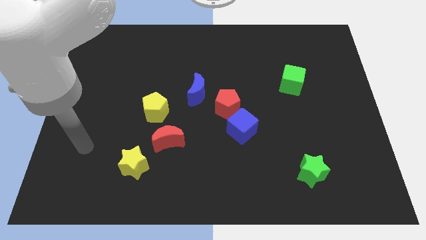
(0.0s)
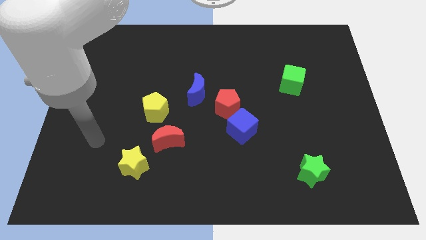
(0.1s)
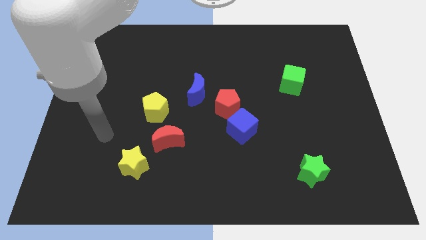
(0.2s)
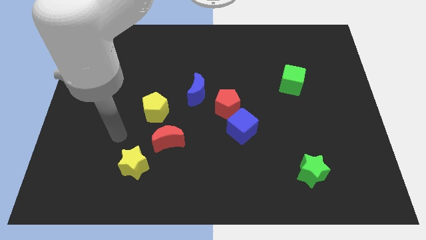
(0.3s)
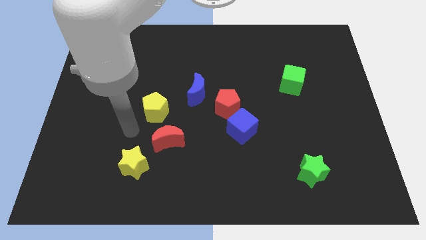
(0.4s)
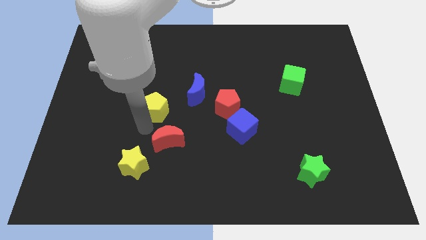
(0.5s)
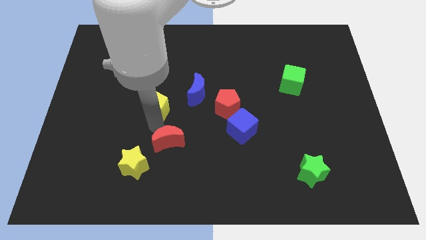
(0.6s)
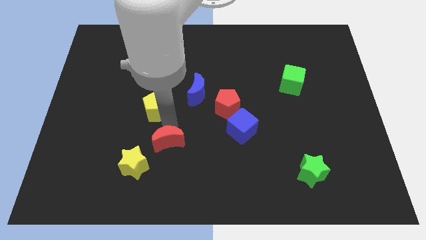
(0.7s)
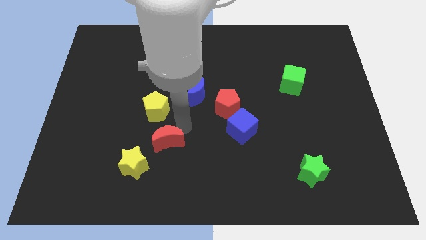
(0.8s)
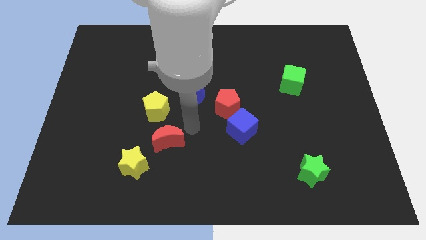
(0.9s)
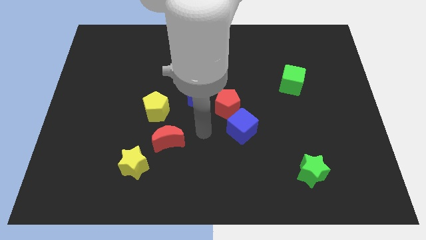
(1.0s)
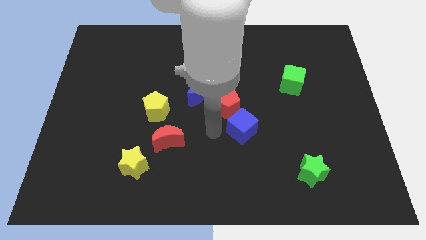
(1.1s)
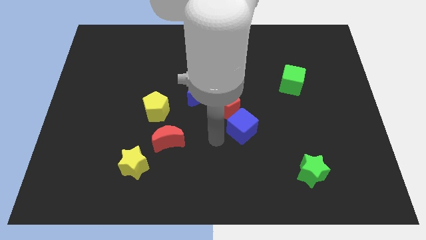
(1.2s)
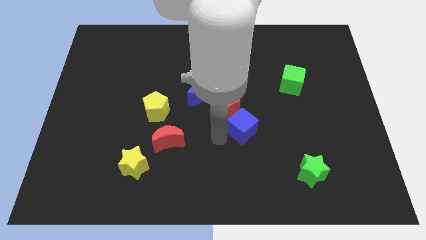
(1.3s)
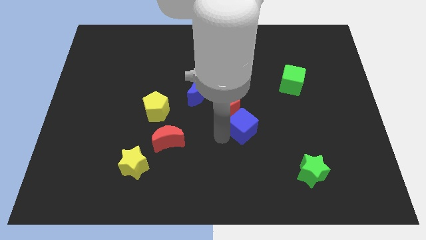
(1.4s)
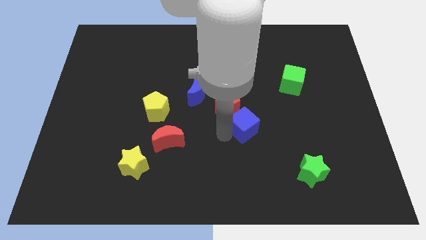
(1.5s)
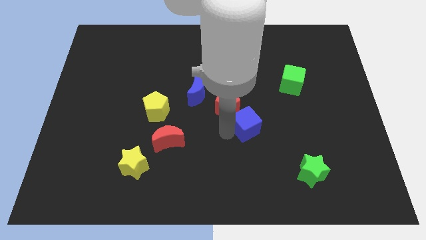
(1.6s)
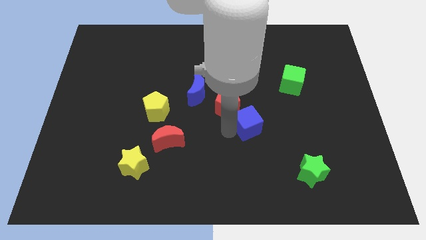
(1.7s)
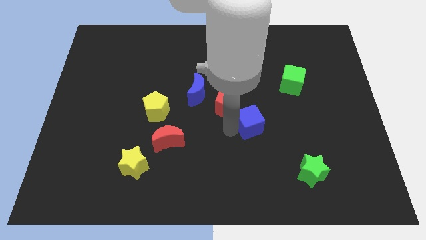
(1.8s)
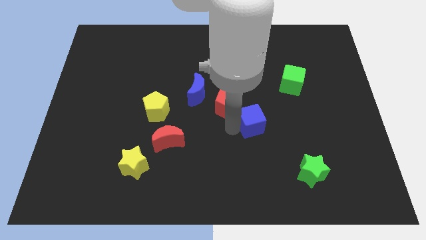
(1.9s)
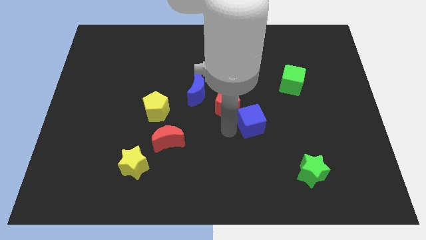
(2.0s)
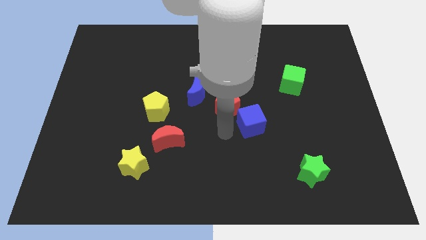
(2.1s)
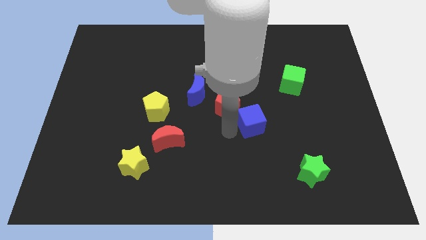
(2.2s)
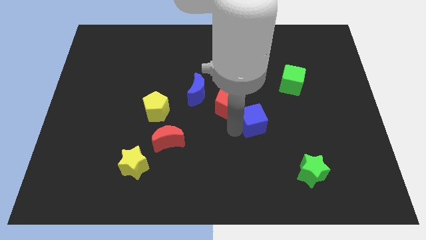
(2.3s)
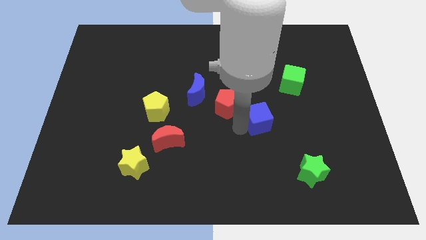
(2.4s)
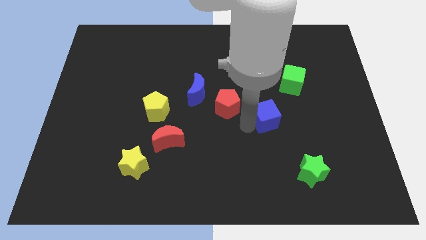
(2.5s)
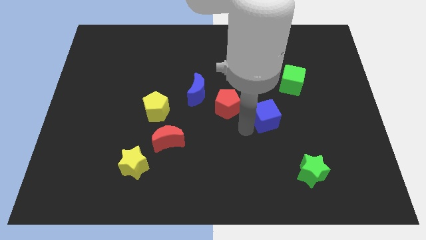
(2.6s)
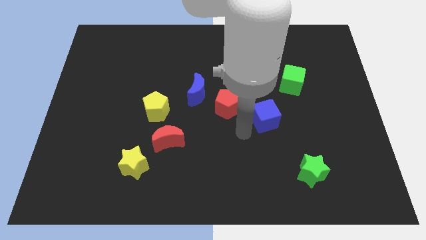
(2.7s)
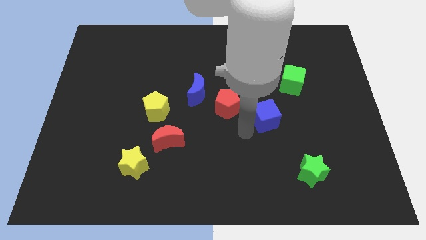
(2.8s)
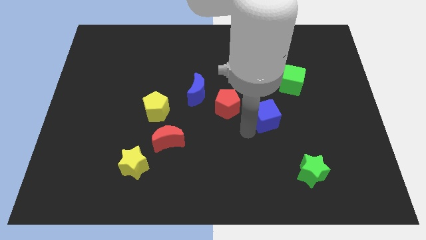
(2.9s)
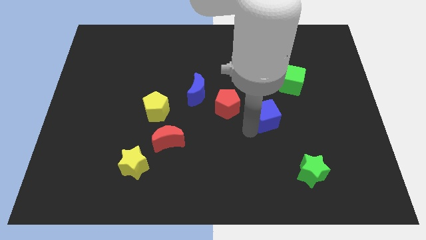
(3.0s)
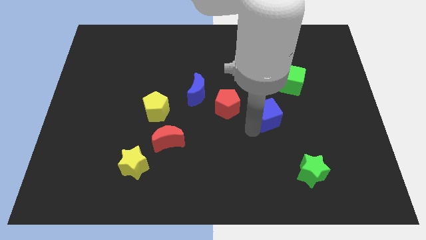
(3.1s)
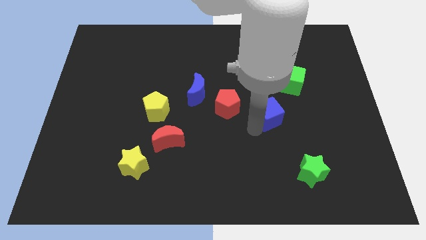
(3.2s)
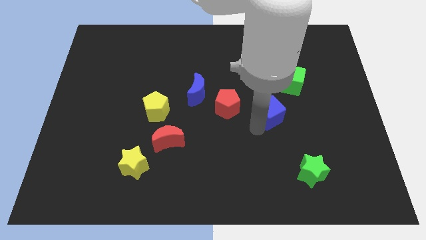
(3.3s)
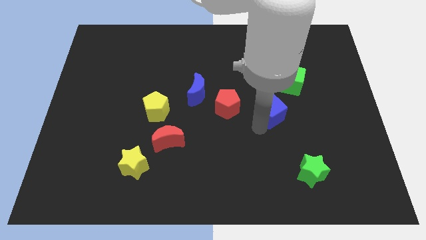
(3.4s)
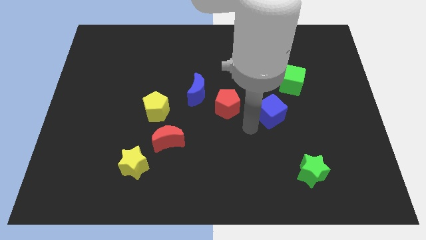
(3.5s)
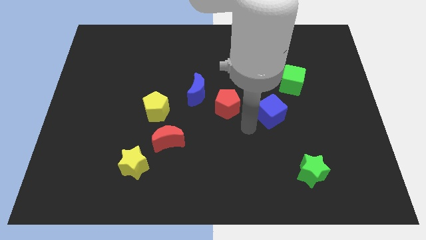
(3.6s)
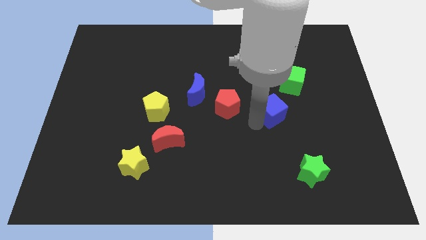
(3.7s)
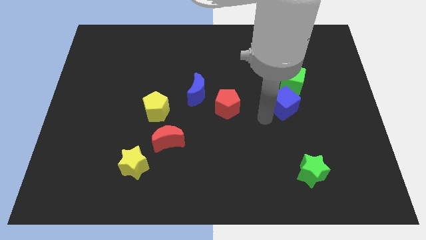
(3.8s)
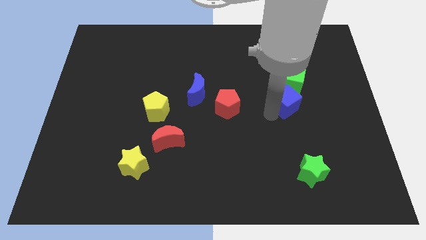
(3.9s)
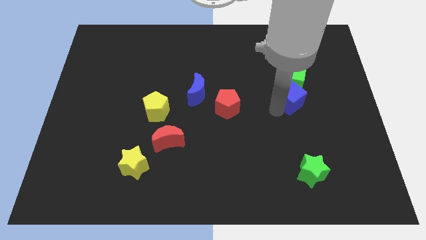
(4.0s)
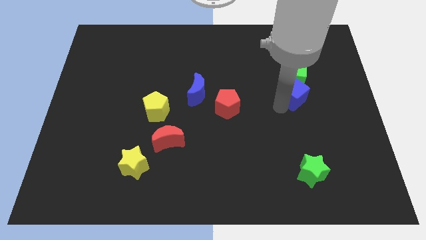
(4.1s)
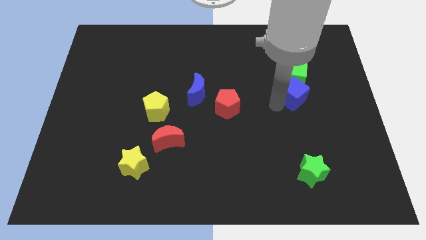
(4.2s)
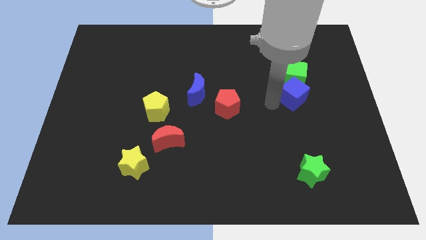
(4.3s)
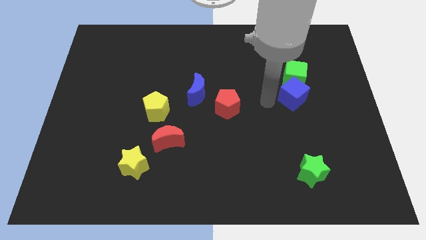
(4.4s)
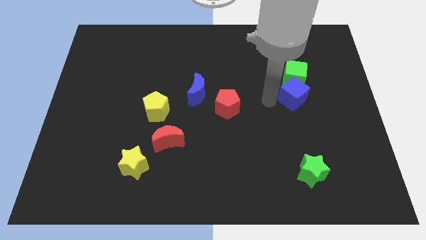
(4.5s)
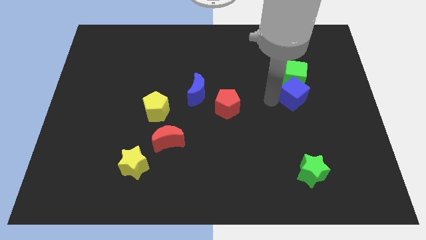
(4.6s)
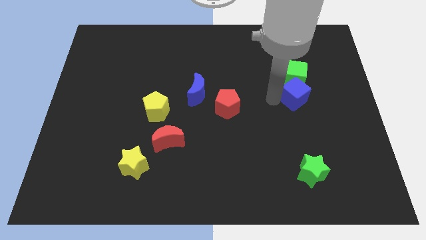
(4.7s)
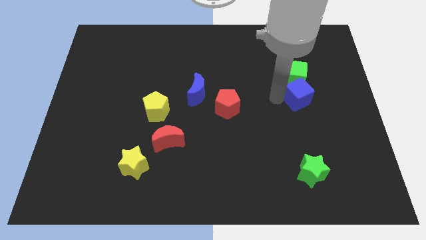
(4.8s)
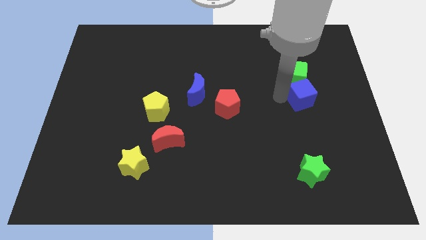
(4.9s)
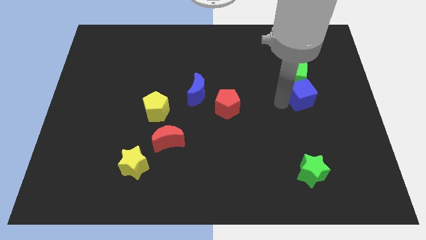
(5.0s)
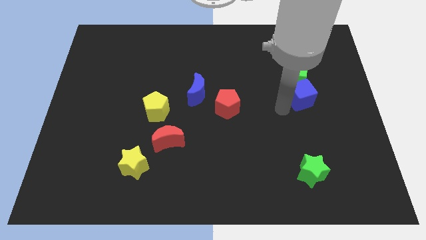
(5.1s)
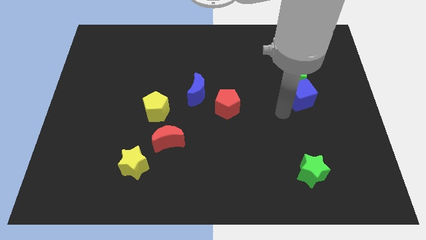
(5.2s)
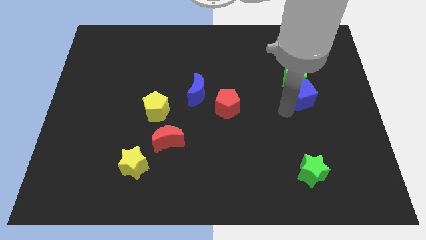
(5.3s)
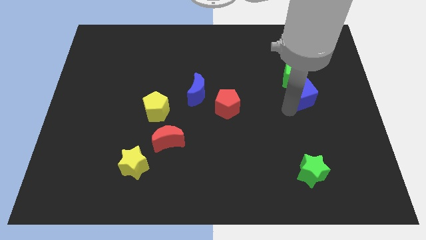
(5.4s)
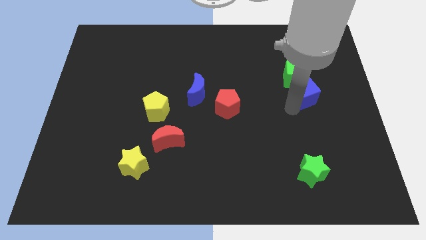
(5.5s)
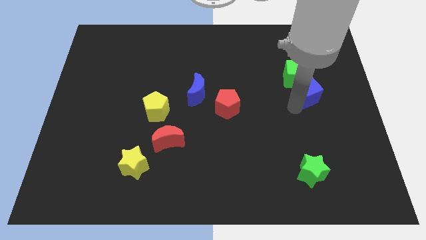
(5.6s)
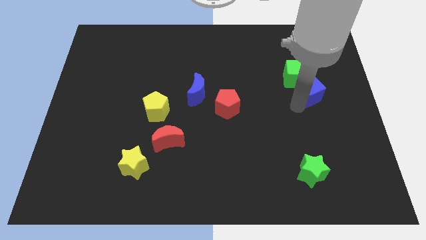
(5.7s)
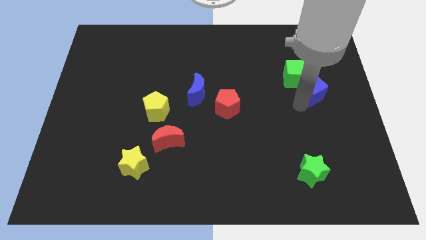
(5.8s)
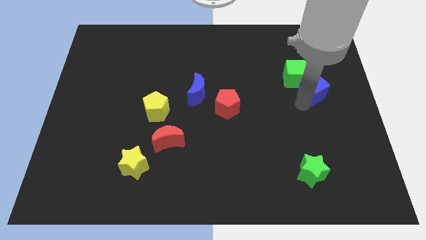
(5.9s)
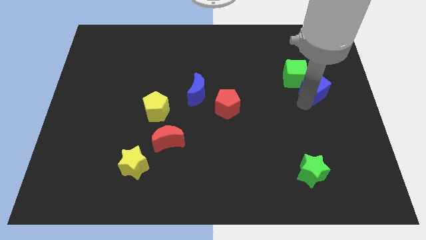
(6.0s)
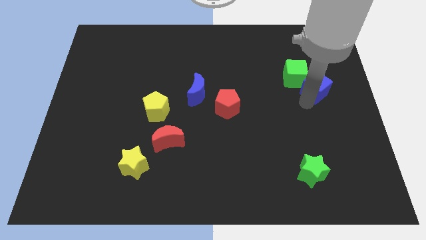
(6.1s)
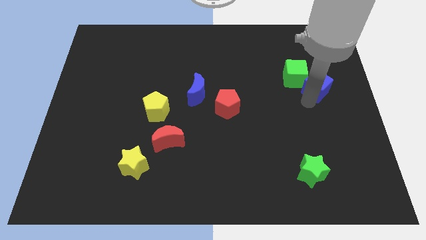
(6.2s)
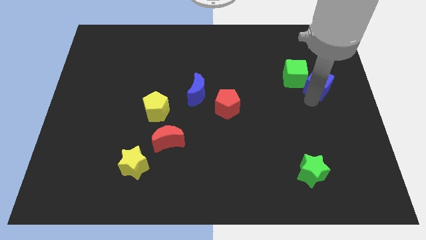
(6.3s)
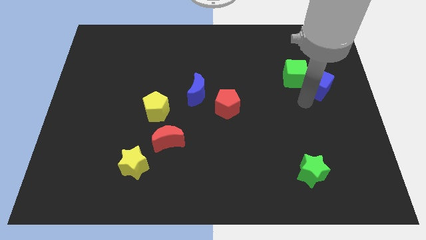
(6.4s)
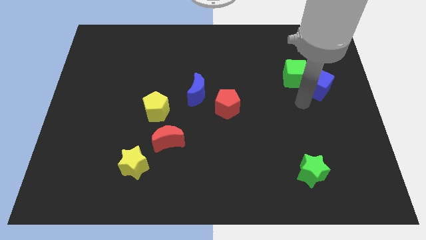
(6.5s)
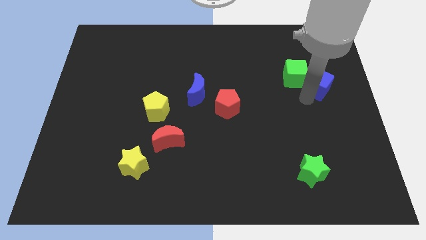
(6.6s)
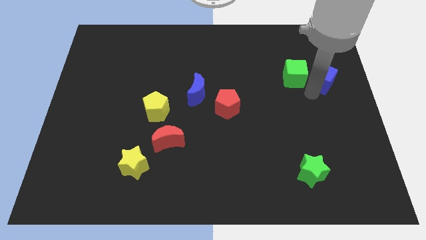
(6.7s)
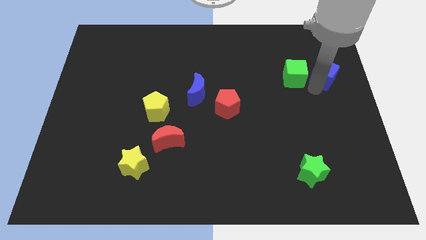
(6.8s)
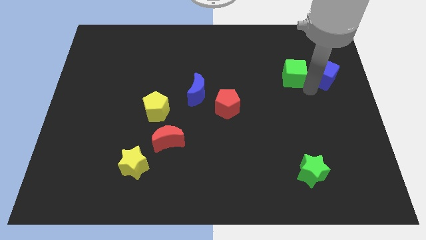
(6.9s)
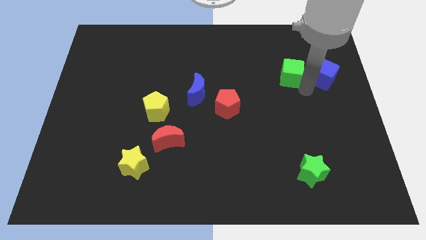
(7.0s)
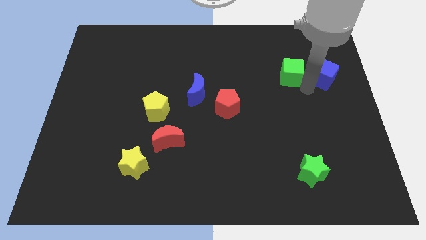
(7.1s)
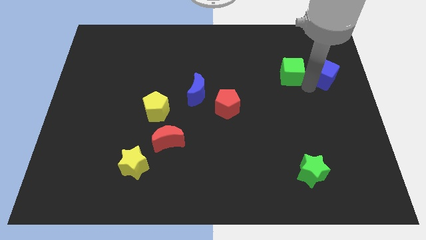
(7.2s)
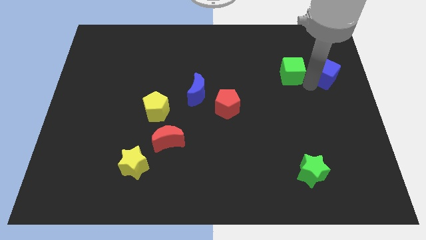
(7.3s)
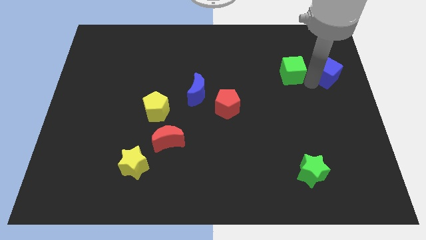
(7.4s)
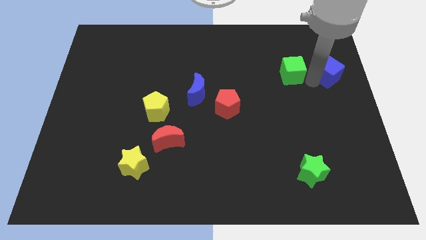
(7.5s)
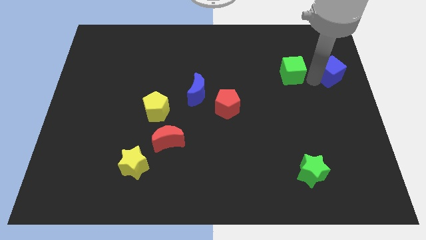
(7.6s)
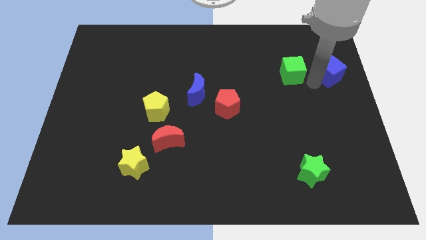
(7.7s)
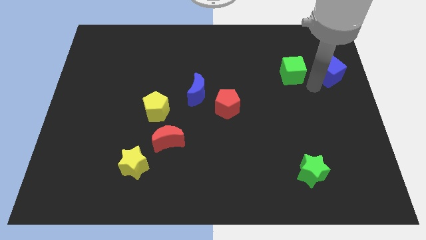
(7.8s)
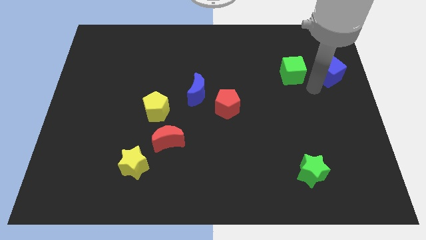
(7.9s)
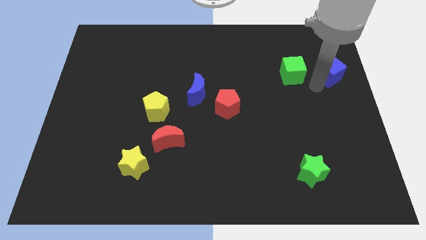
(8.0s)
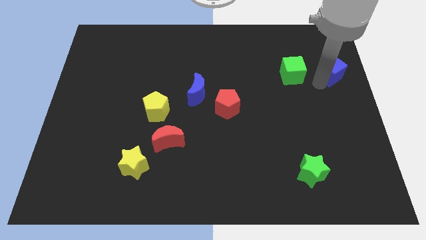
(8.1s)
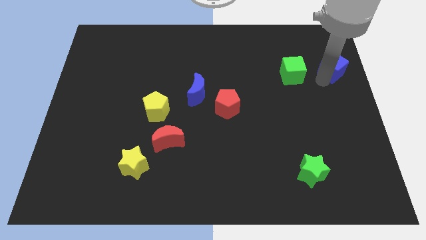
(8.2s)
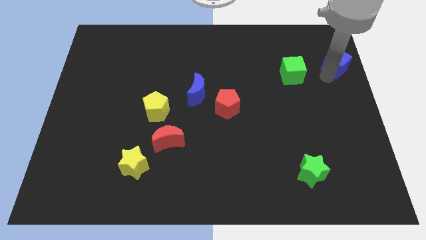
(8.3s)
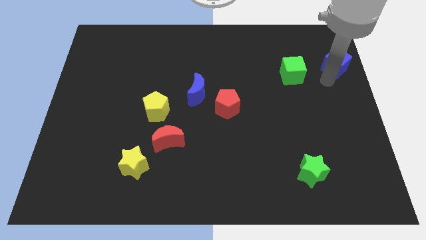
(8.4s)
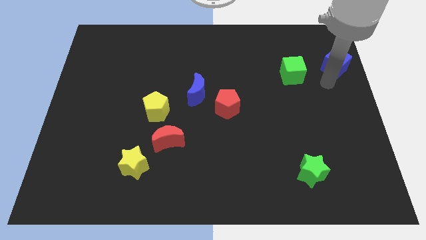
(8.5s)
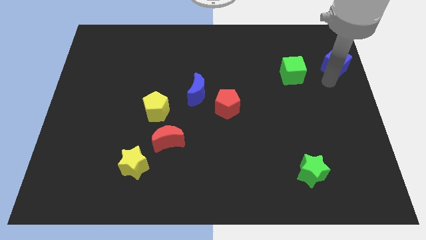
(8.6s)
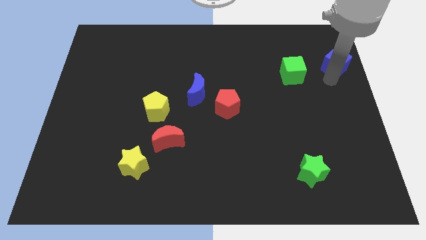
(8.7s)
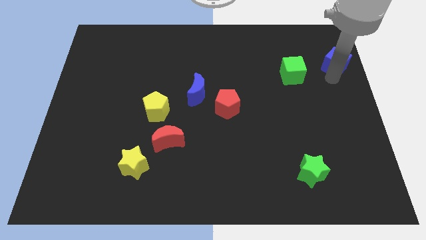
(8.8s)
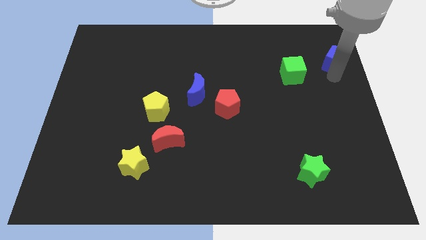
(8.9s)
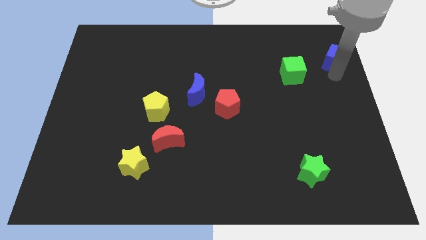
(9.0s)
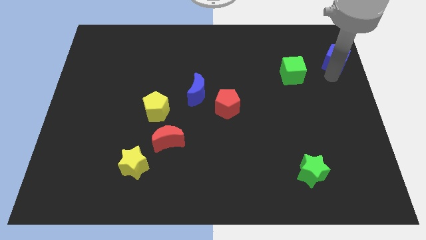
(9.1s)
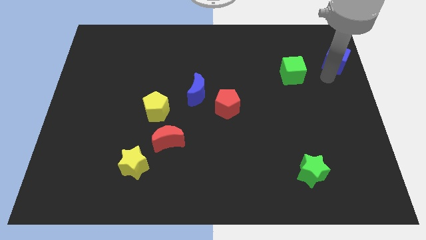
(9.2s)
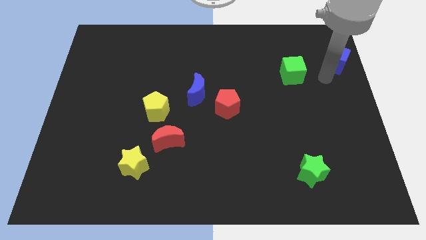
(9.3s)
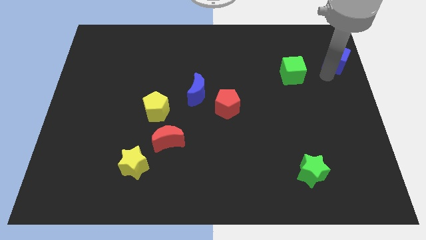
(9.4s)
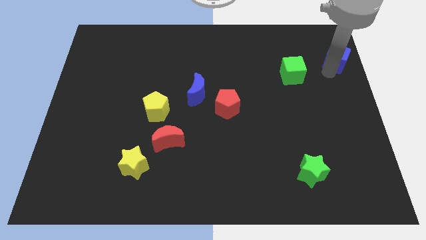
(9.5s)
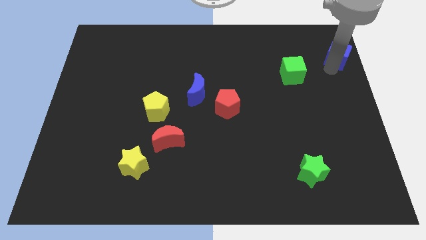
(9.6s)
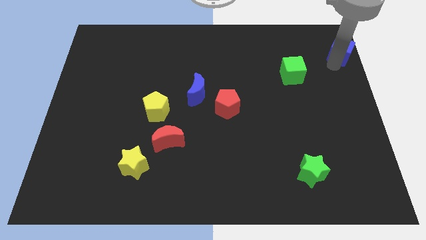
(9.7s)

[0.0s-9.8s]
slide the blue cube to the top right
